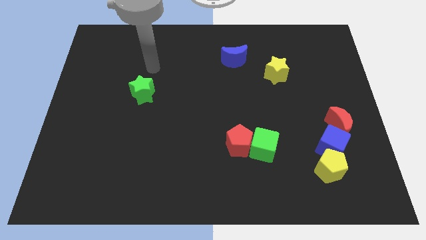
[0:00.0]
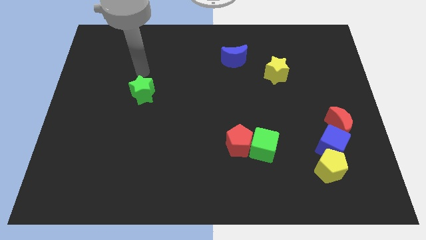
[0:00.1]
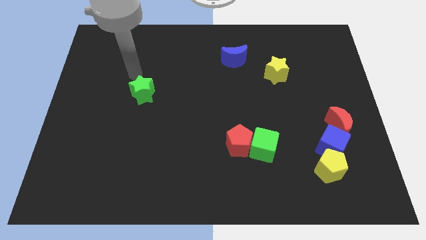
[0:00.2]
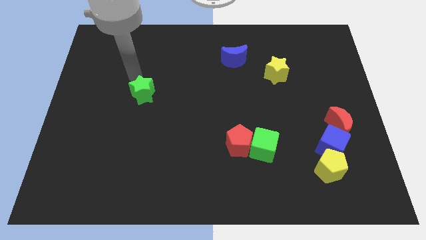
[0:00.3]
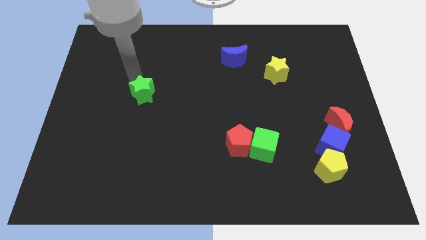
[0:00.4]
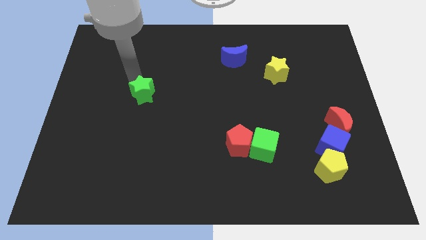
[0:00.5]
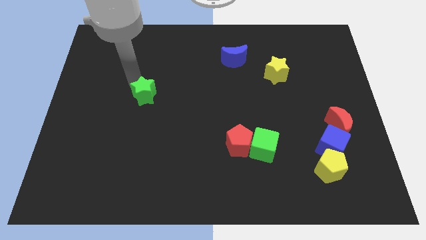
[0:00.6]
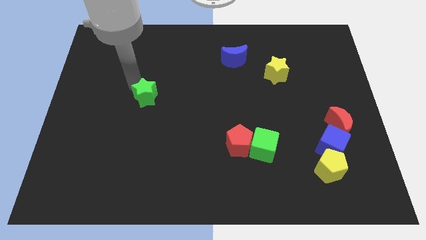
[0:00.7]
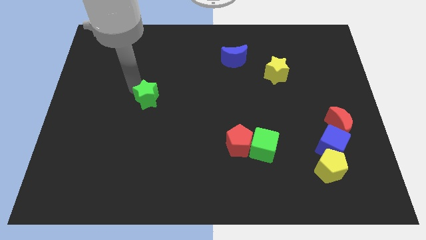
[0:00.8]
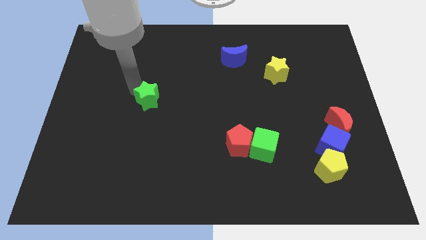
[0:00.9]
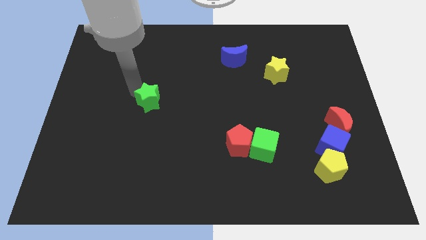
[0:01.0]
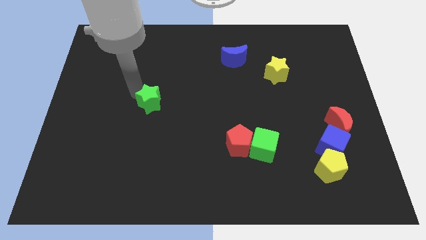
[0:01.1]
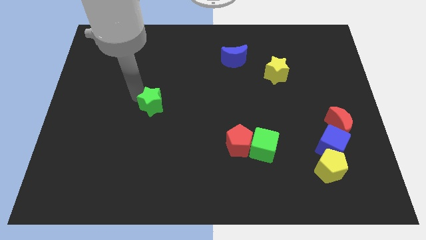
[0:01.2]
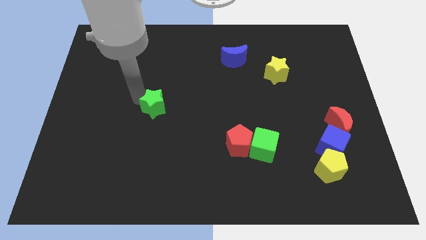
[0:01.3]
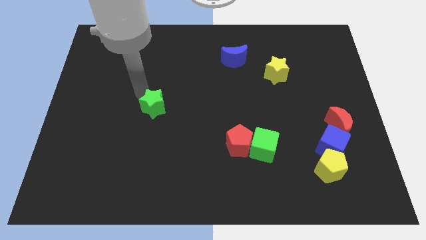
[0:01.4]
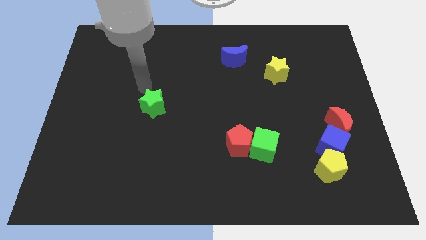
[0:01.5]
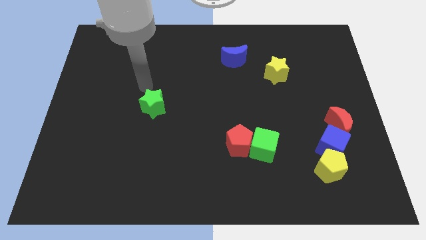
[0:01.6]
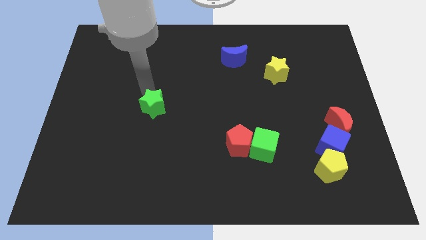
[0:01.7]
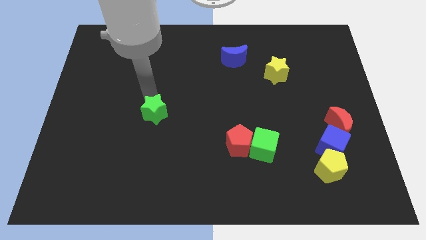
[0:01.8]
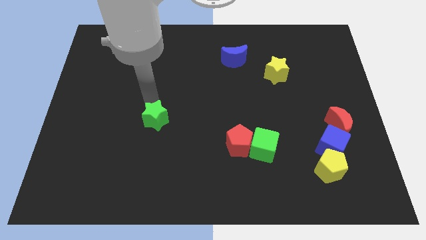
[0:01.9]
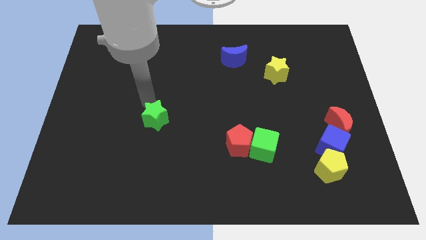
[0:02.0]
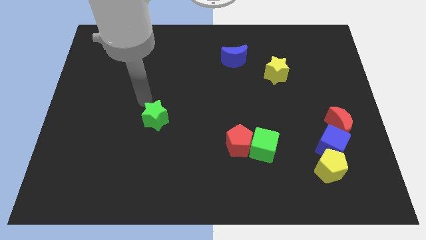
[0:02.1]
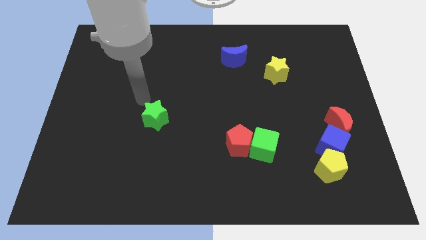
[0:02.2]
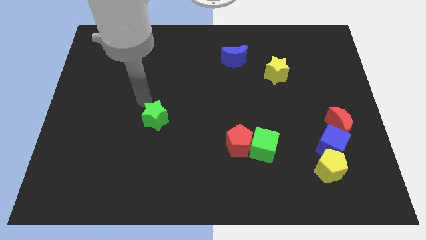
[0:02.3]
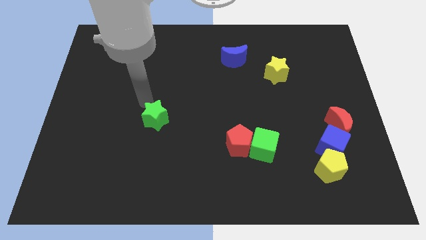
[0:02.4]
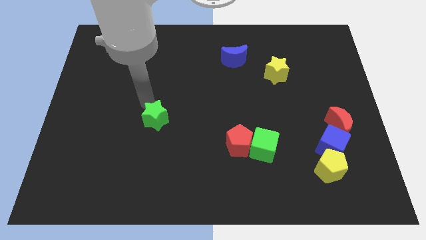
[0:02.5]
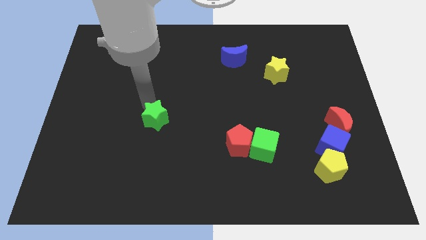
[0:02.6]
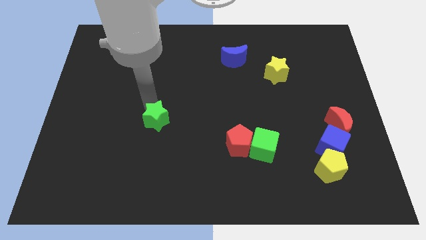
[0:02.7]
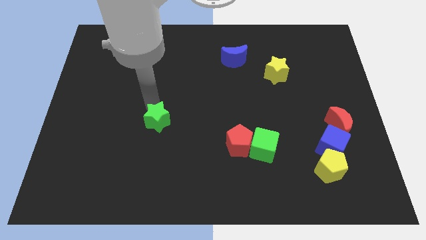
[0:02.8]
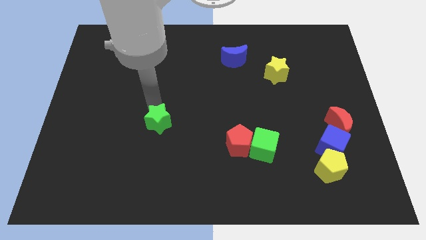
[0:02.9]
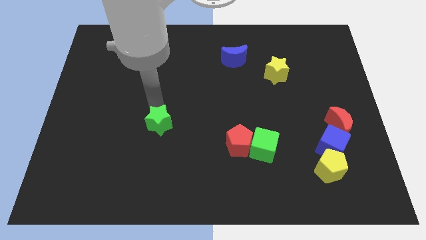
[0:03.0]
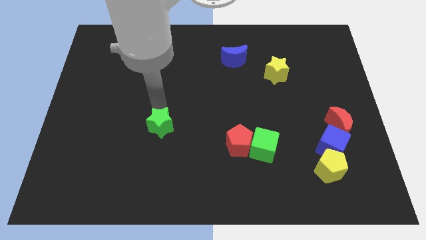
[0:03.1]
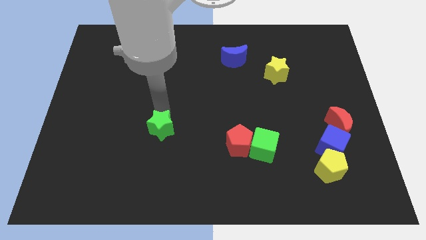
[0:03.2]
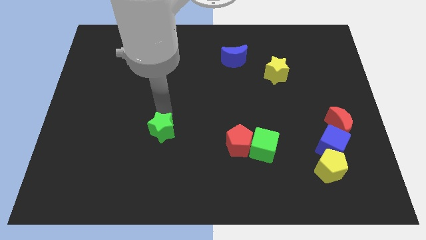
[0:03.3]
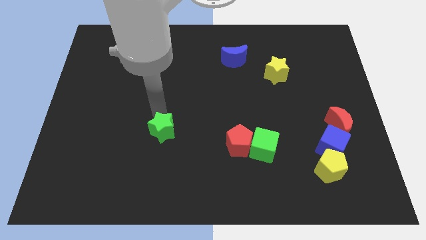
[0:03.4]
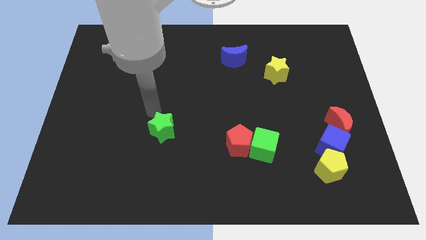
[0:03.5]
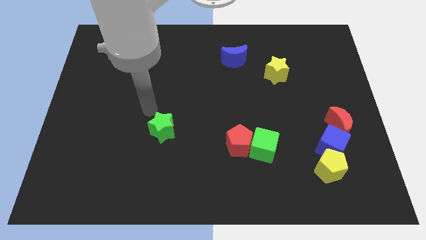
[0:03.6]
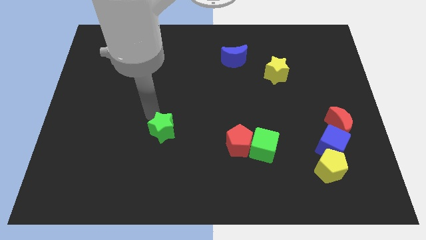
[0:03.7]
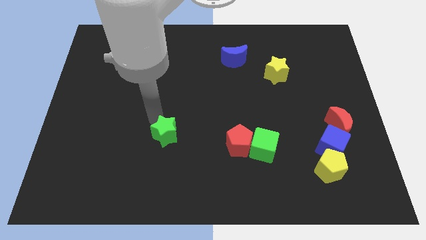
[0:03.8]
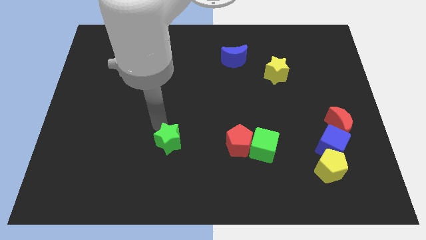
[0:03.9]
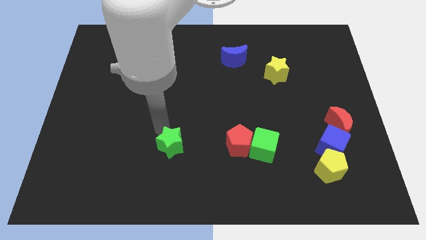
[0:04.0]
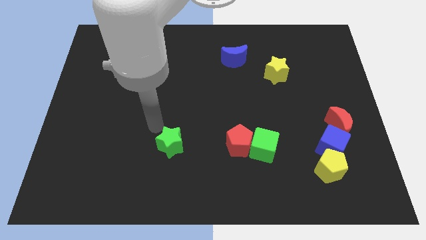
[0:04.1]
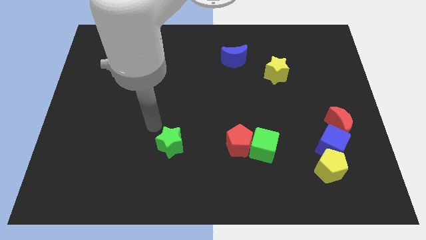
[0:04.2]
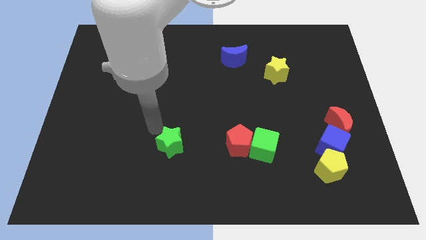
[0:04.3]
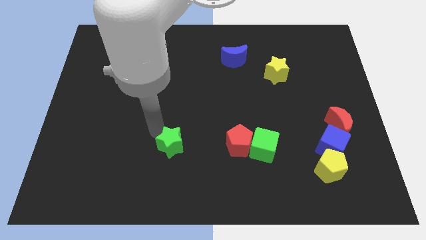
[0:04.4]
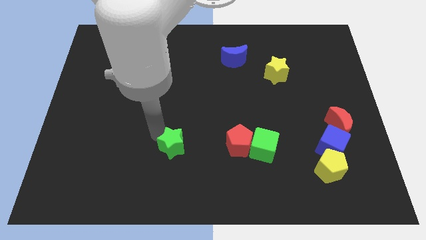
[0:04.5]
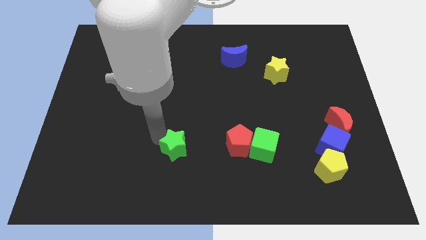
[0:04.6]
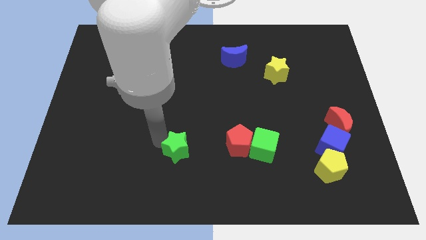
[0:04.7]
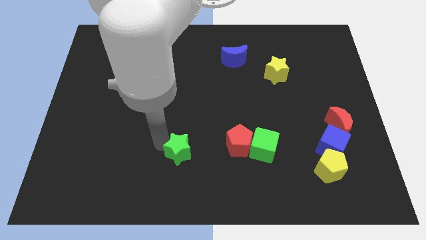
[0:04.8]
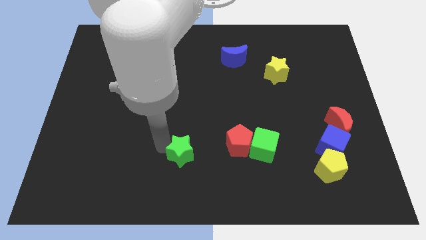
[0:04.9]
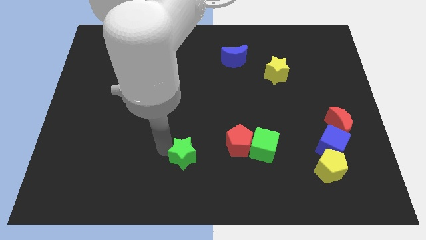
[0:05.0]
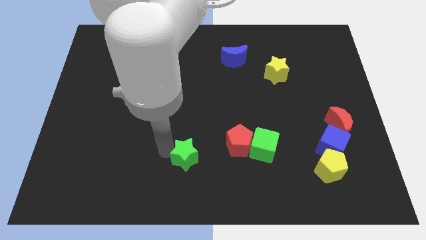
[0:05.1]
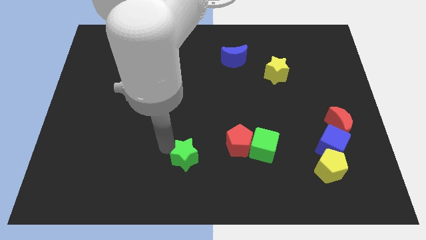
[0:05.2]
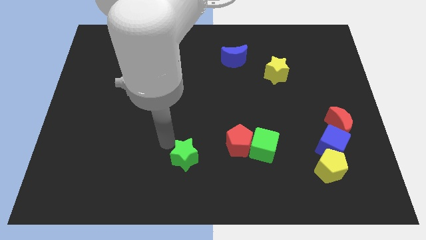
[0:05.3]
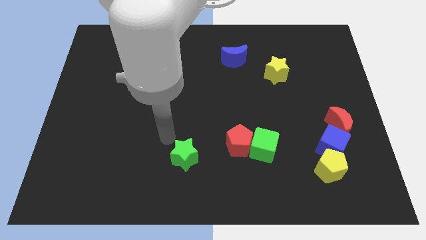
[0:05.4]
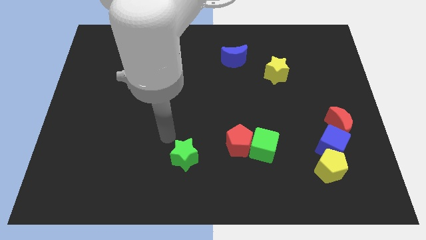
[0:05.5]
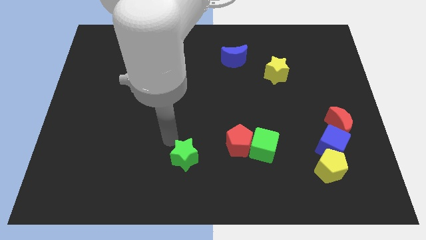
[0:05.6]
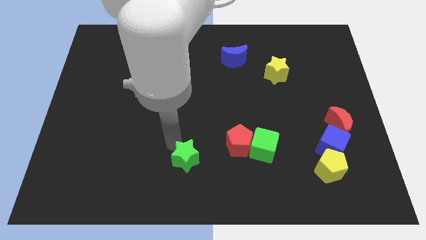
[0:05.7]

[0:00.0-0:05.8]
slide the green star to the bottom side

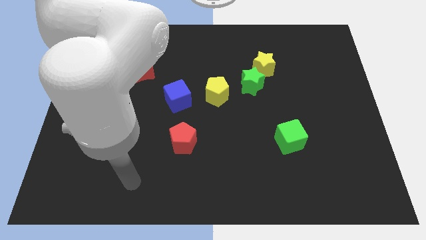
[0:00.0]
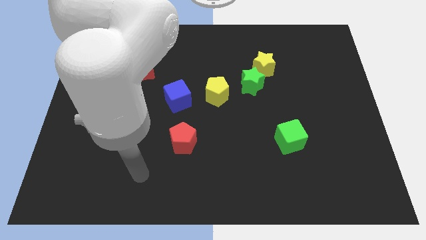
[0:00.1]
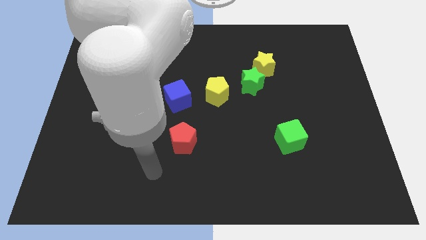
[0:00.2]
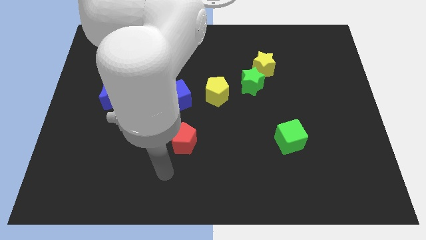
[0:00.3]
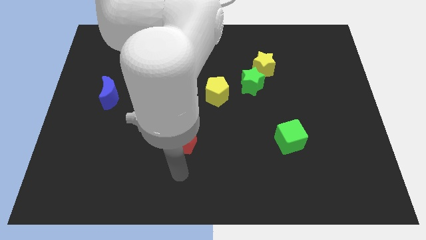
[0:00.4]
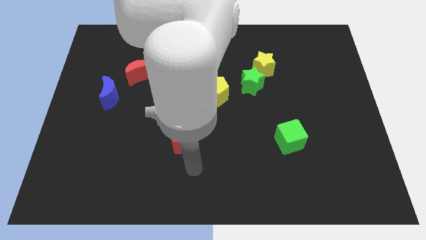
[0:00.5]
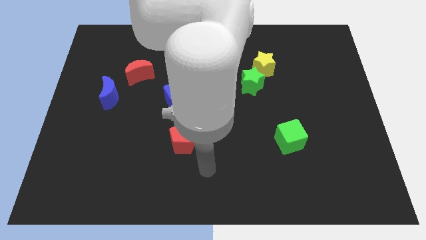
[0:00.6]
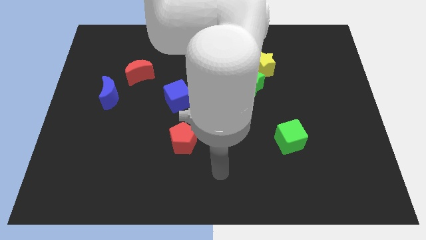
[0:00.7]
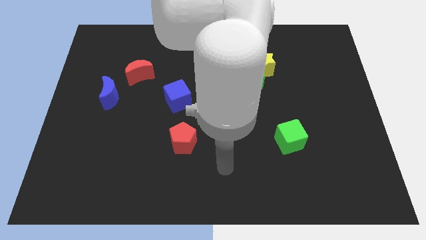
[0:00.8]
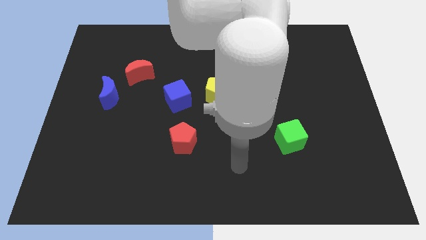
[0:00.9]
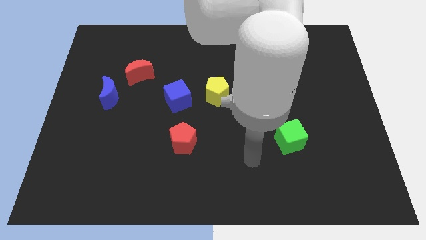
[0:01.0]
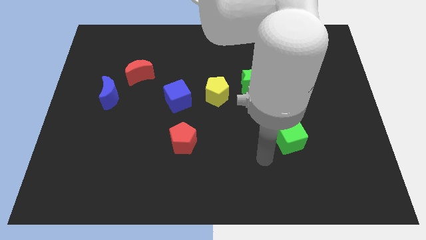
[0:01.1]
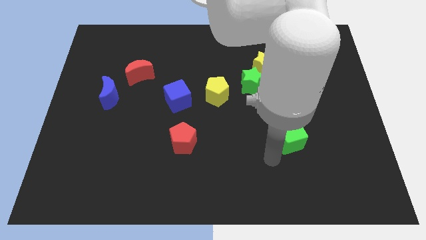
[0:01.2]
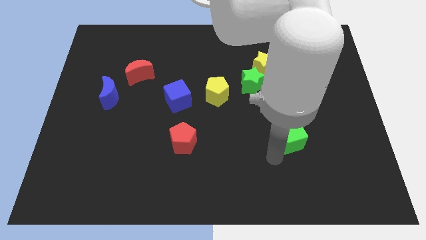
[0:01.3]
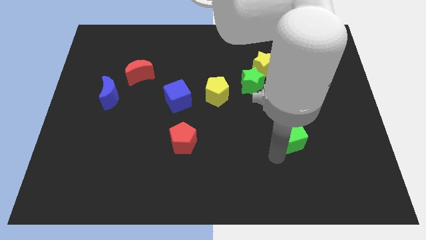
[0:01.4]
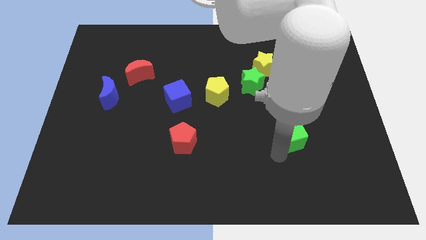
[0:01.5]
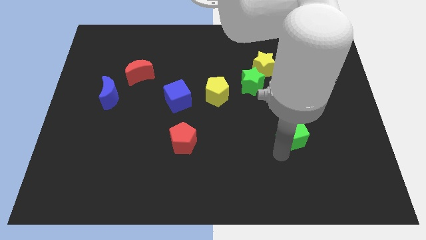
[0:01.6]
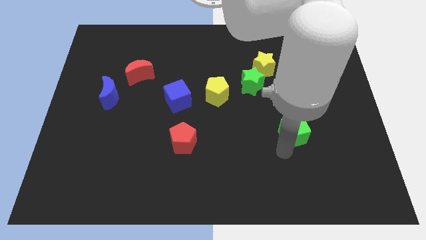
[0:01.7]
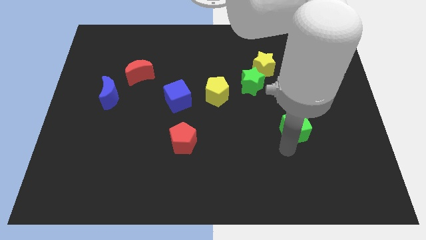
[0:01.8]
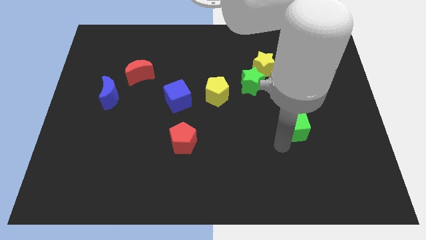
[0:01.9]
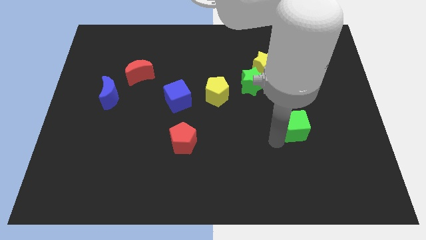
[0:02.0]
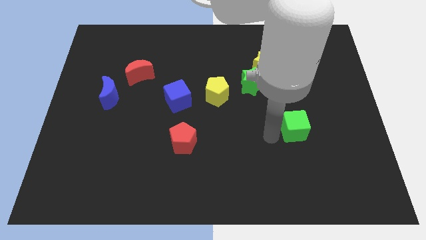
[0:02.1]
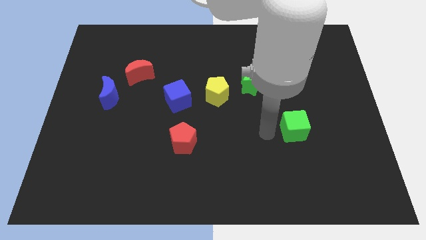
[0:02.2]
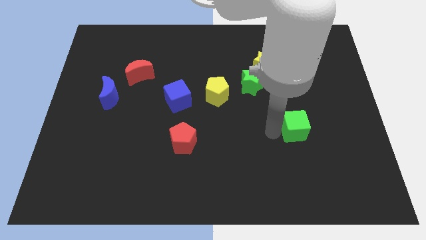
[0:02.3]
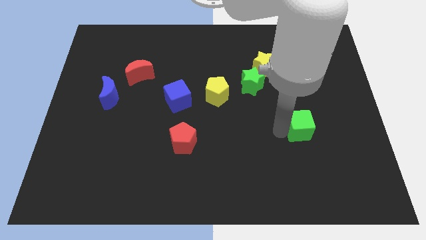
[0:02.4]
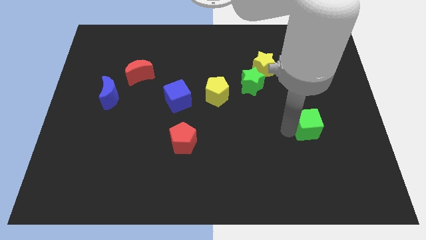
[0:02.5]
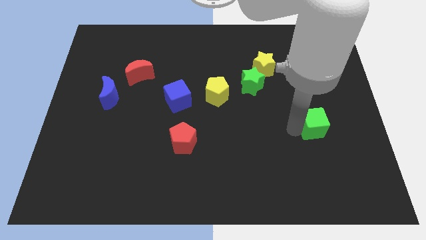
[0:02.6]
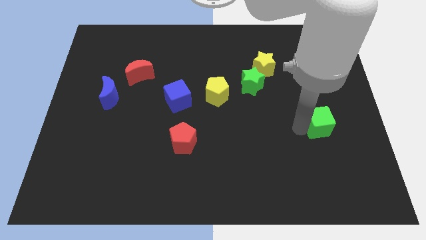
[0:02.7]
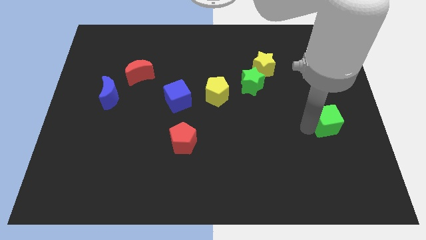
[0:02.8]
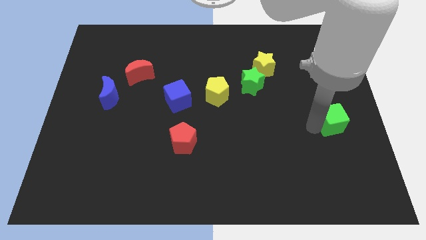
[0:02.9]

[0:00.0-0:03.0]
slide the green cube to the right side
